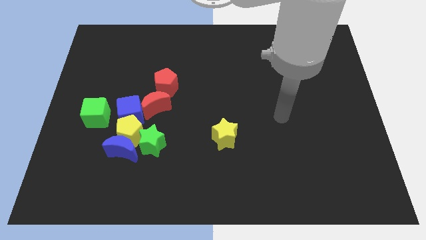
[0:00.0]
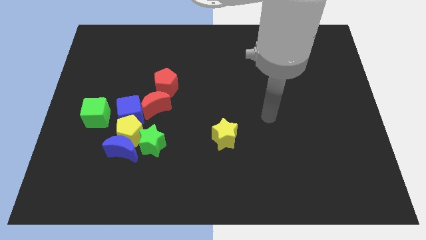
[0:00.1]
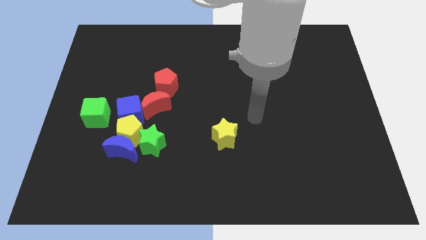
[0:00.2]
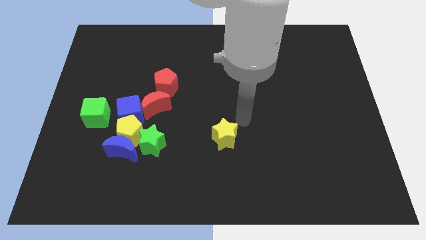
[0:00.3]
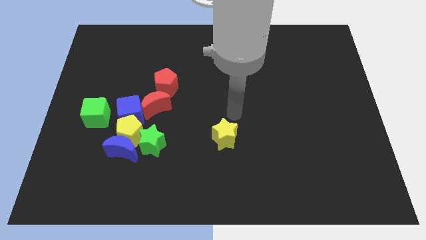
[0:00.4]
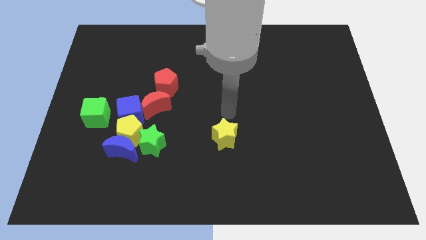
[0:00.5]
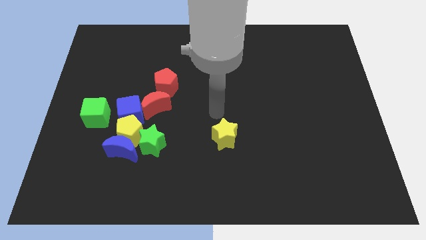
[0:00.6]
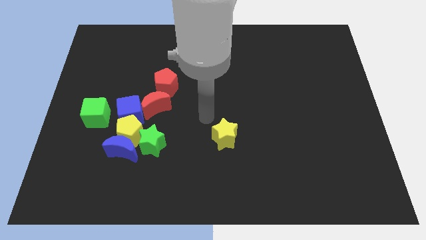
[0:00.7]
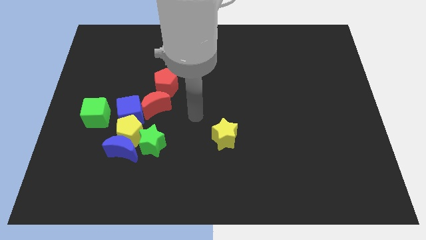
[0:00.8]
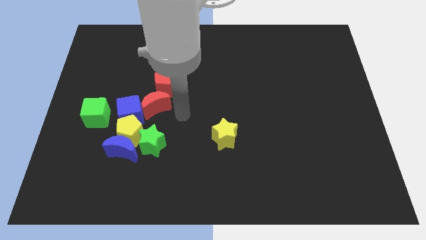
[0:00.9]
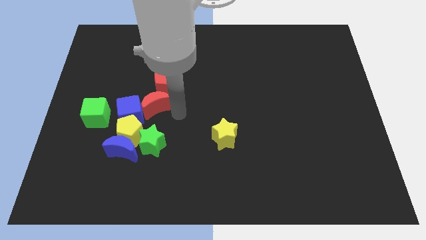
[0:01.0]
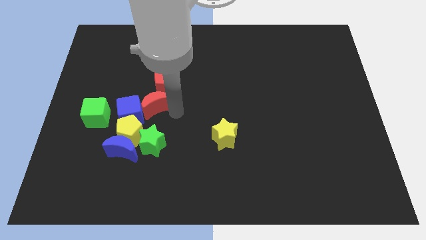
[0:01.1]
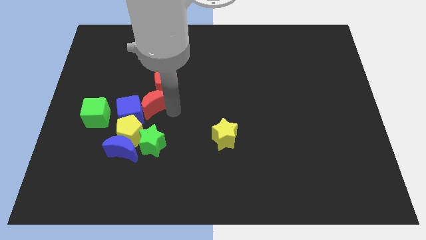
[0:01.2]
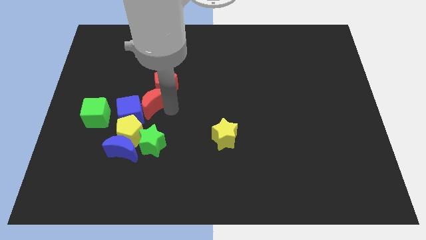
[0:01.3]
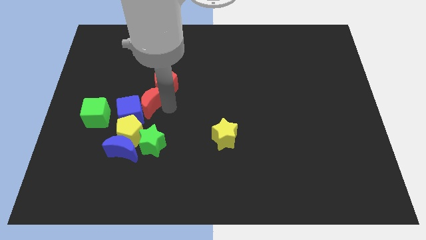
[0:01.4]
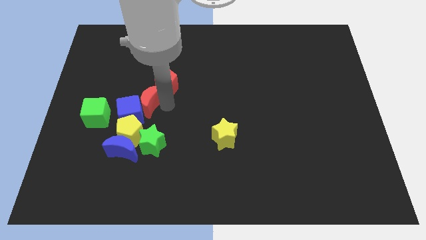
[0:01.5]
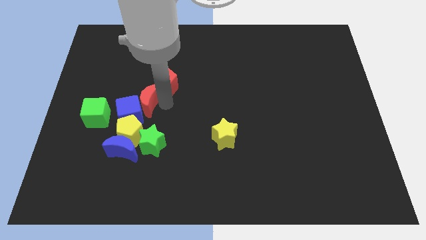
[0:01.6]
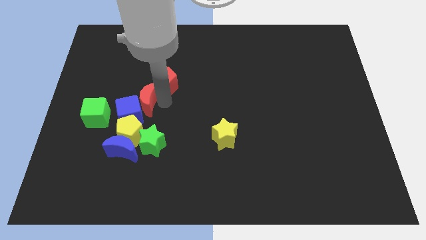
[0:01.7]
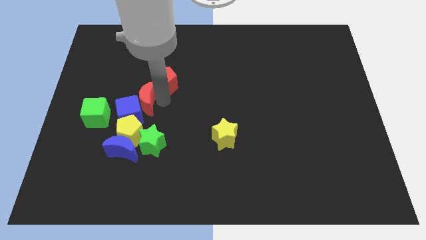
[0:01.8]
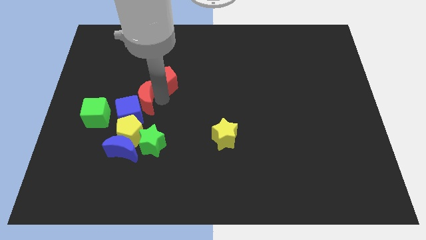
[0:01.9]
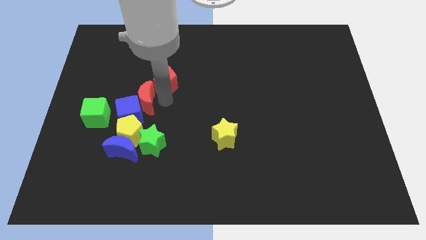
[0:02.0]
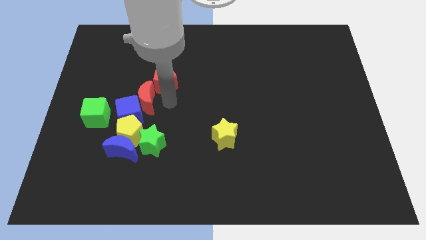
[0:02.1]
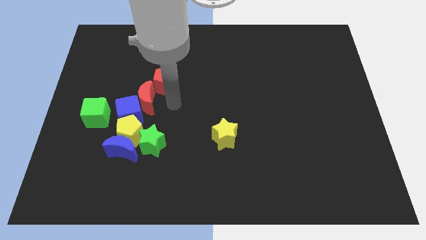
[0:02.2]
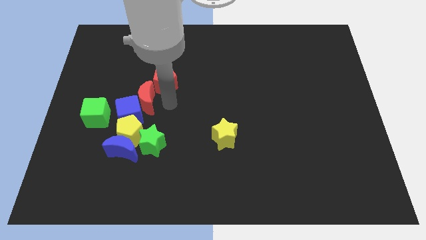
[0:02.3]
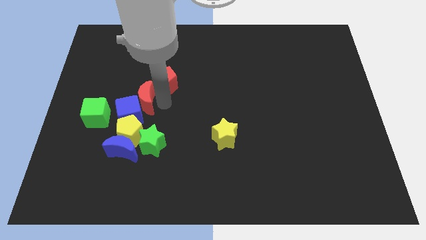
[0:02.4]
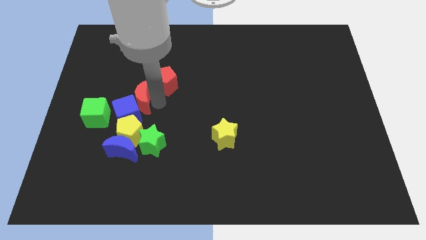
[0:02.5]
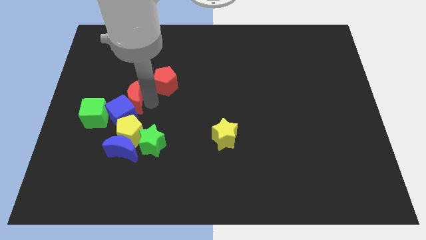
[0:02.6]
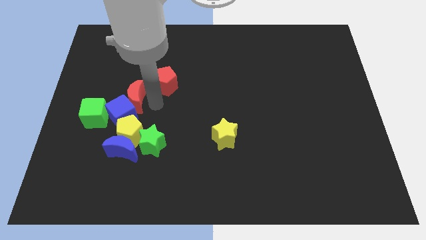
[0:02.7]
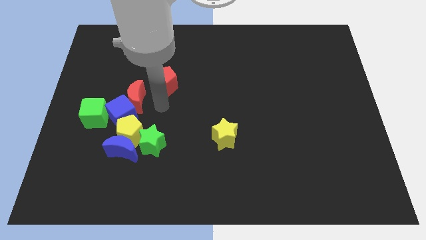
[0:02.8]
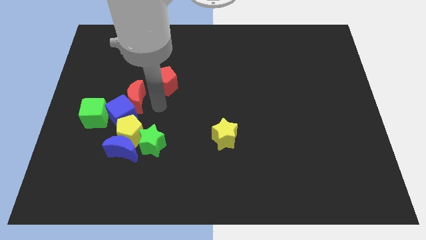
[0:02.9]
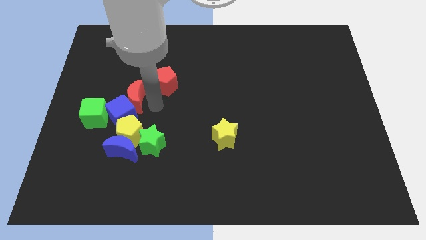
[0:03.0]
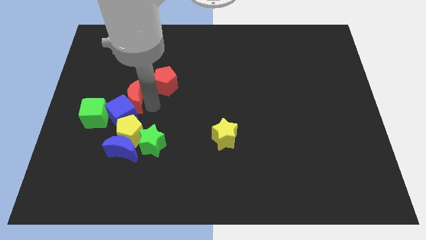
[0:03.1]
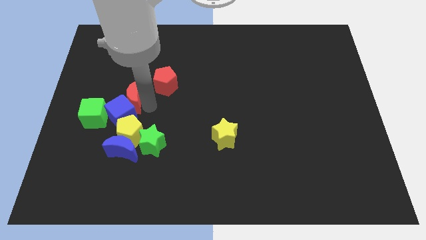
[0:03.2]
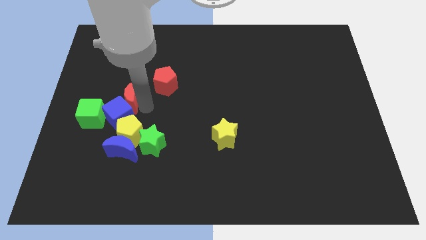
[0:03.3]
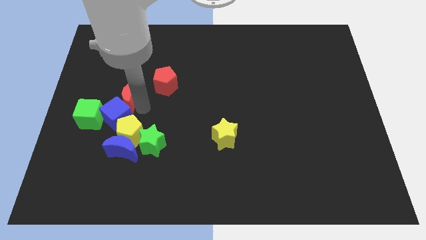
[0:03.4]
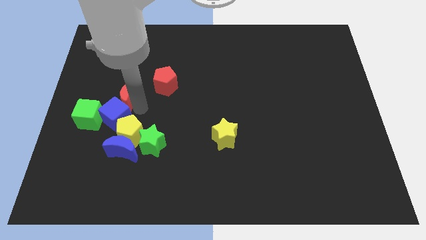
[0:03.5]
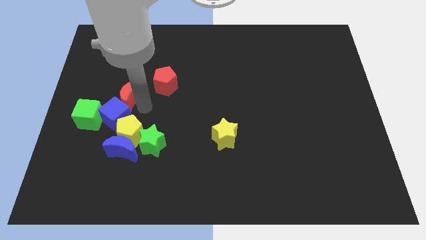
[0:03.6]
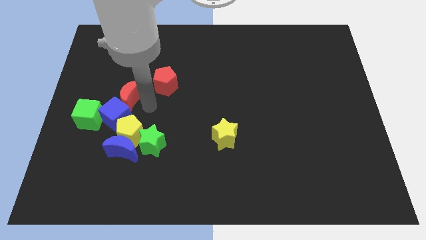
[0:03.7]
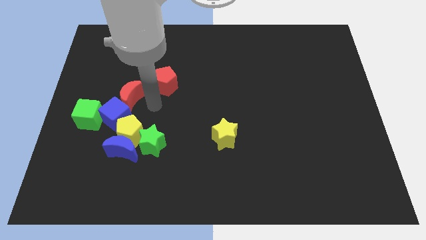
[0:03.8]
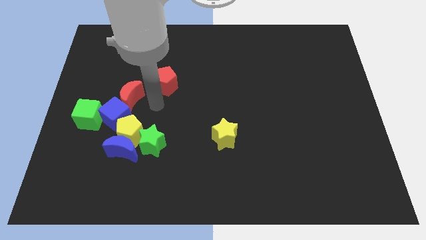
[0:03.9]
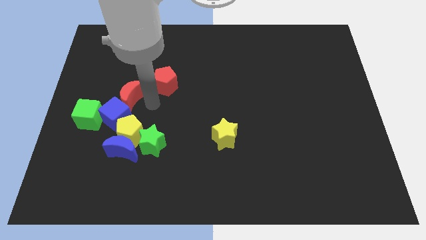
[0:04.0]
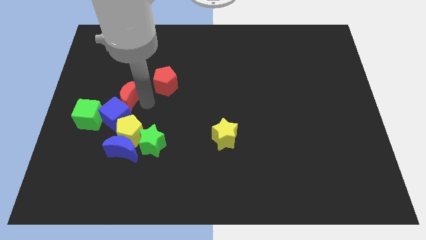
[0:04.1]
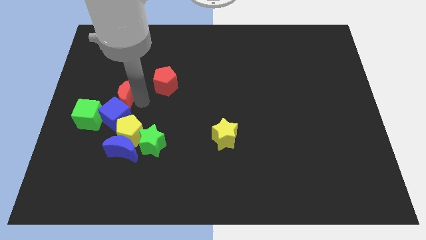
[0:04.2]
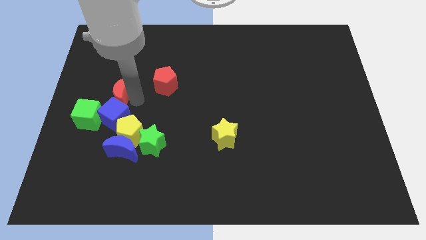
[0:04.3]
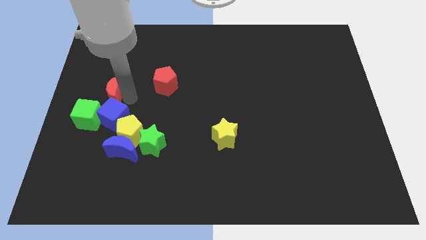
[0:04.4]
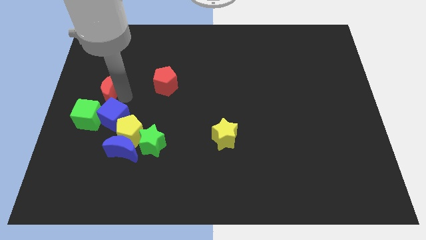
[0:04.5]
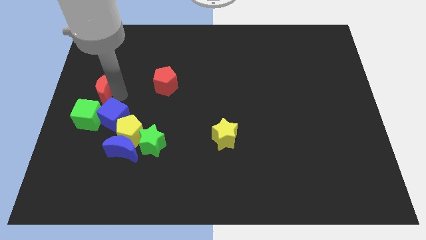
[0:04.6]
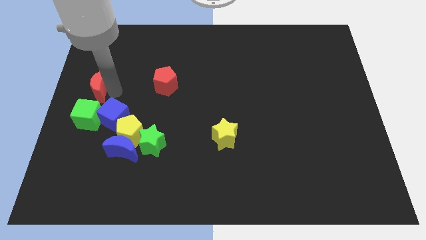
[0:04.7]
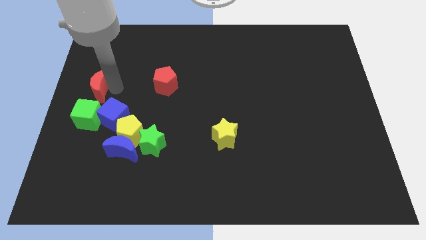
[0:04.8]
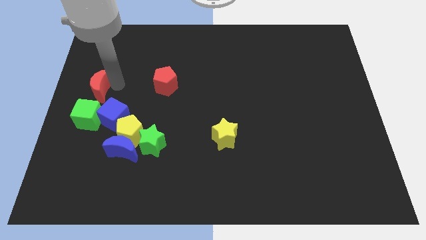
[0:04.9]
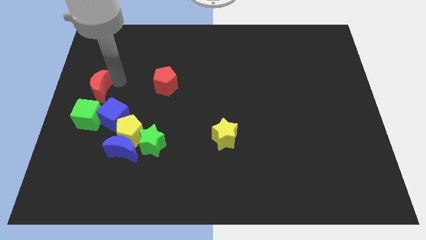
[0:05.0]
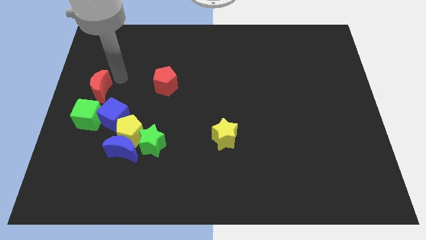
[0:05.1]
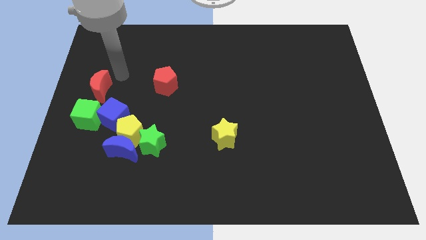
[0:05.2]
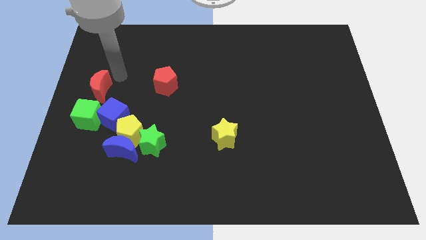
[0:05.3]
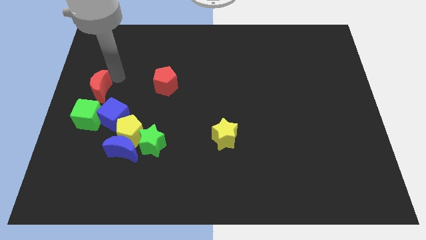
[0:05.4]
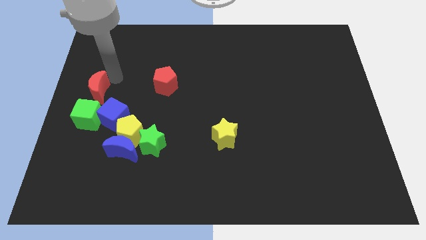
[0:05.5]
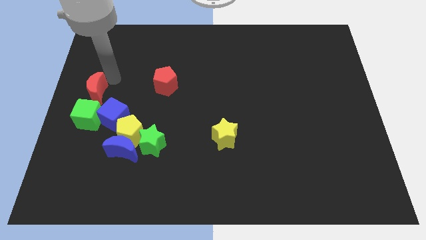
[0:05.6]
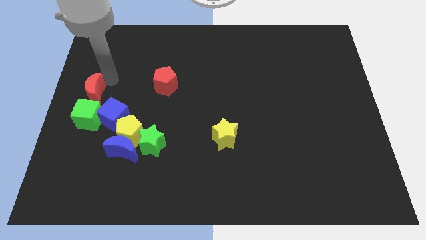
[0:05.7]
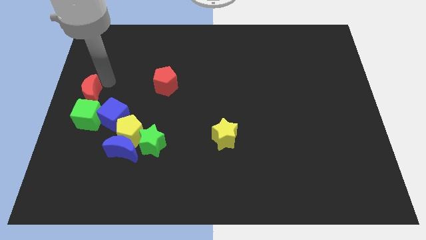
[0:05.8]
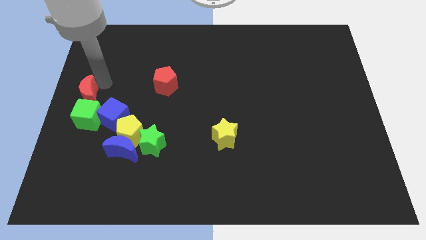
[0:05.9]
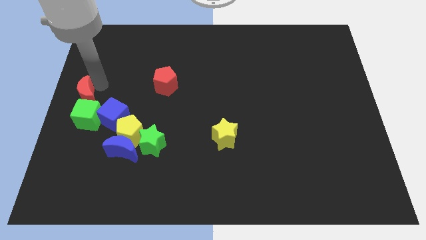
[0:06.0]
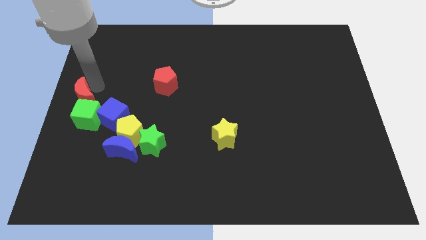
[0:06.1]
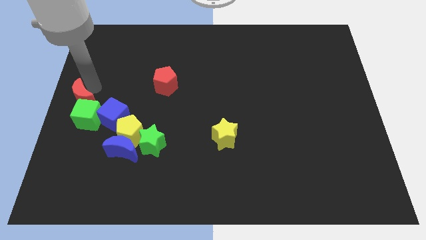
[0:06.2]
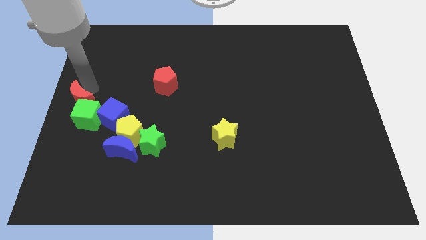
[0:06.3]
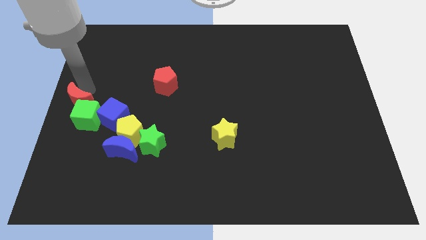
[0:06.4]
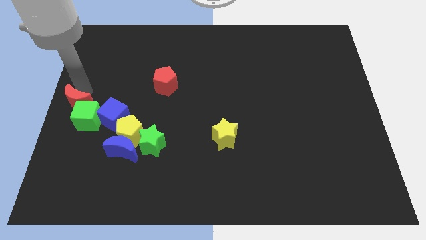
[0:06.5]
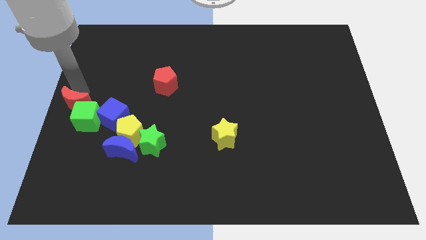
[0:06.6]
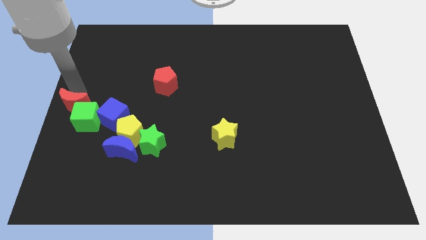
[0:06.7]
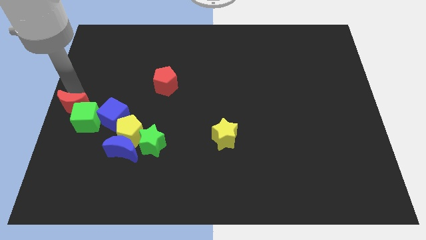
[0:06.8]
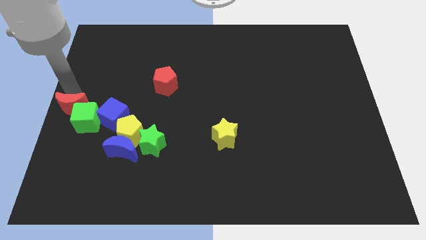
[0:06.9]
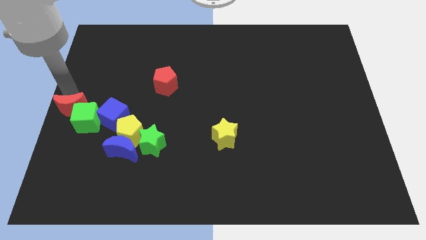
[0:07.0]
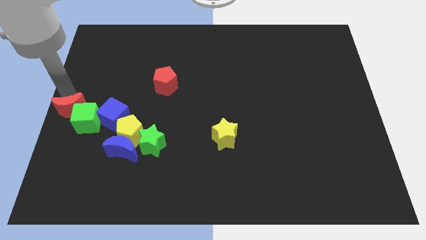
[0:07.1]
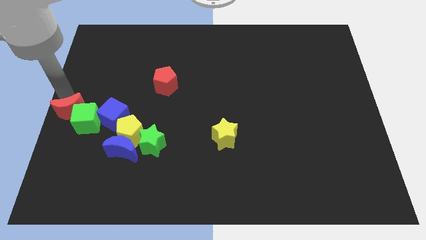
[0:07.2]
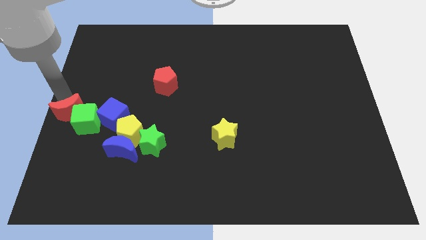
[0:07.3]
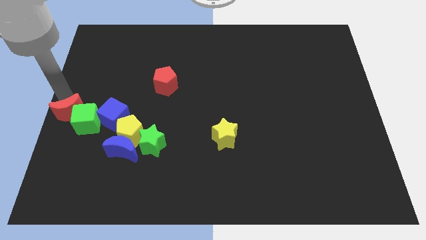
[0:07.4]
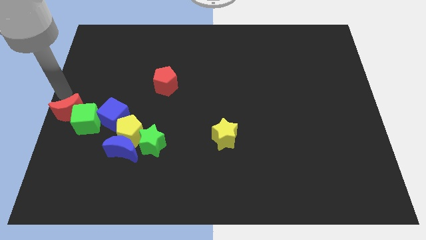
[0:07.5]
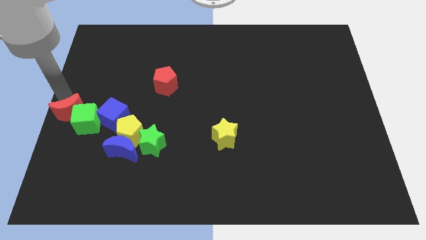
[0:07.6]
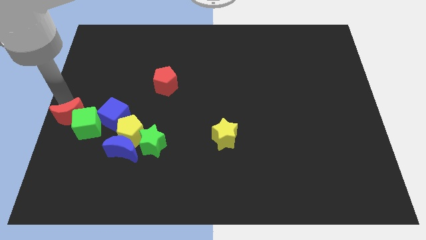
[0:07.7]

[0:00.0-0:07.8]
slide the red moon down and to the left slightly

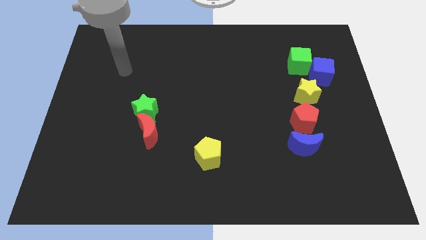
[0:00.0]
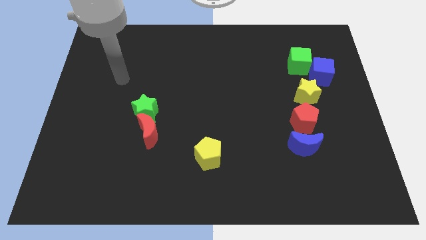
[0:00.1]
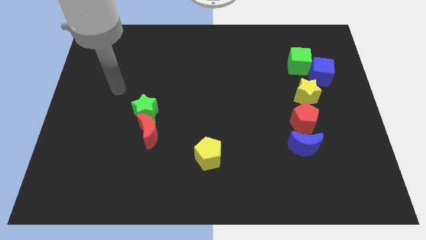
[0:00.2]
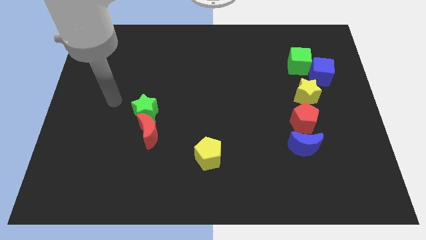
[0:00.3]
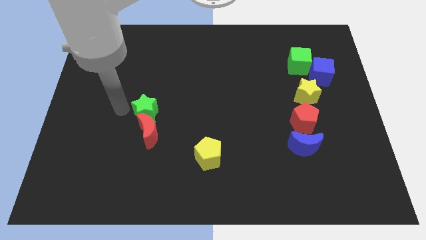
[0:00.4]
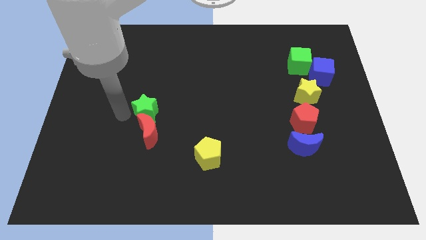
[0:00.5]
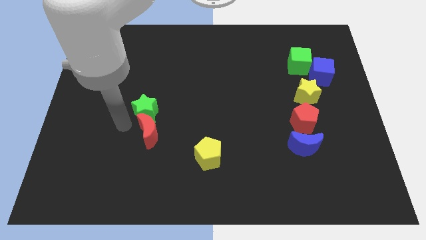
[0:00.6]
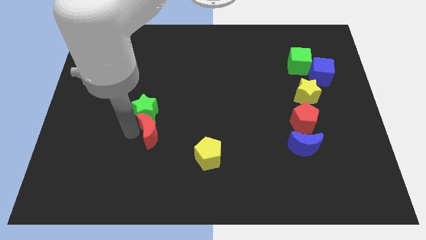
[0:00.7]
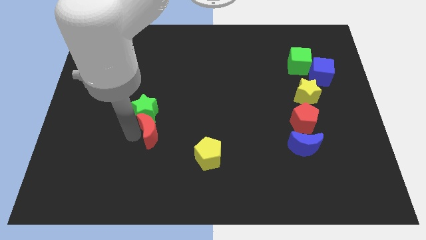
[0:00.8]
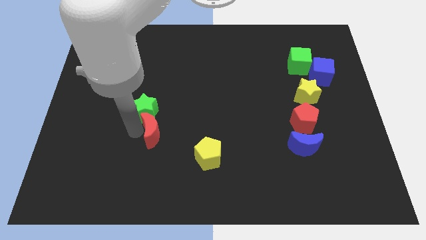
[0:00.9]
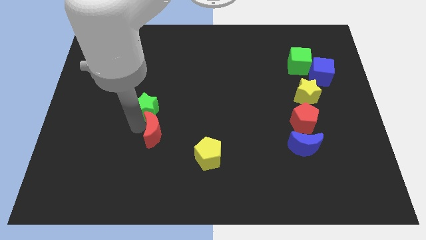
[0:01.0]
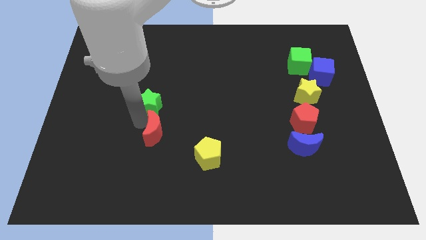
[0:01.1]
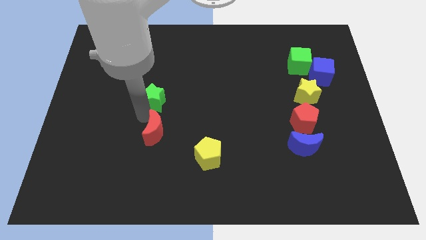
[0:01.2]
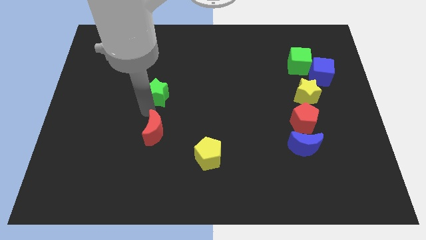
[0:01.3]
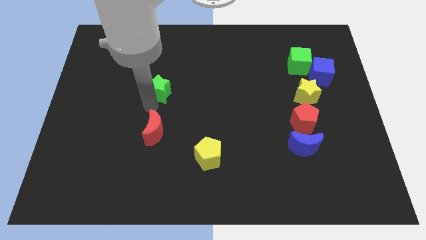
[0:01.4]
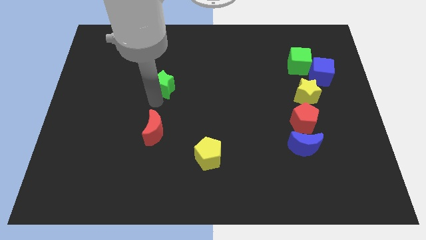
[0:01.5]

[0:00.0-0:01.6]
push the green star upwards somewhat
